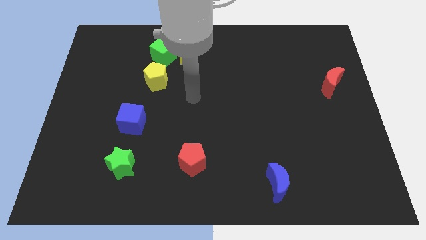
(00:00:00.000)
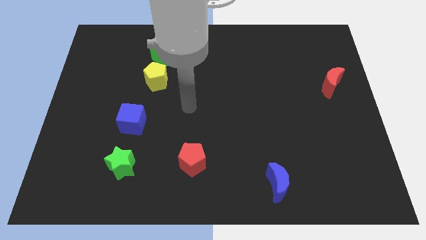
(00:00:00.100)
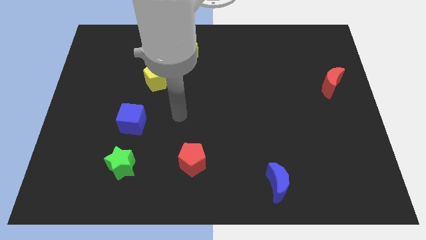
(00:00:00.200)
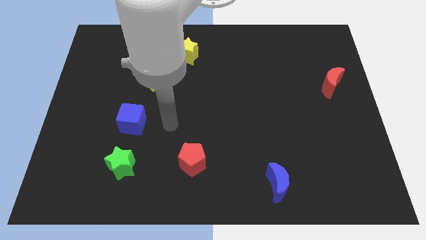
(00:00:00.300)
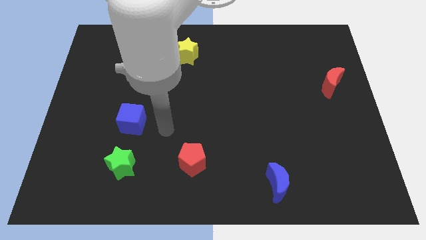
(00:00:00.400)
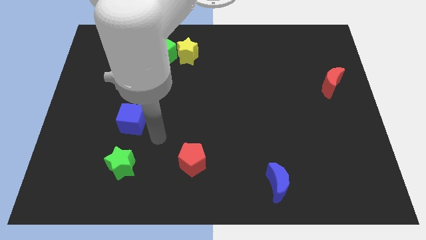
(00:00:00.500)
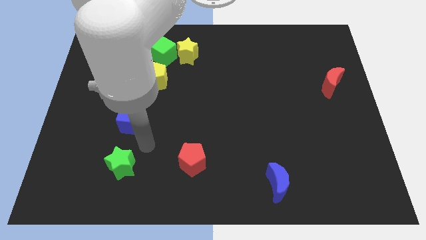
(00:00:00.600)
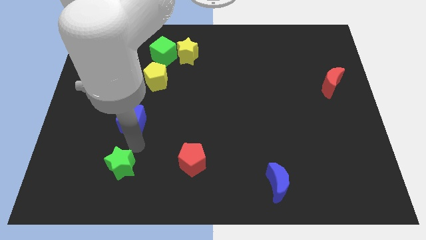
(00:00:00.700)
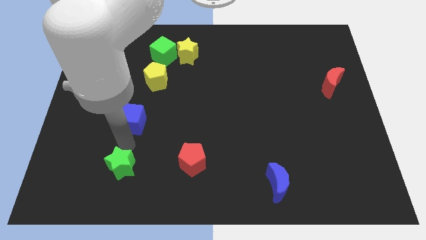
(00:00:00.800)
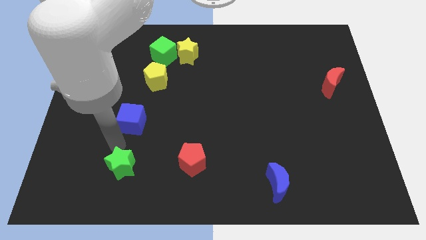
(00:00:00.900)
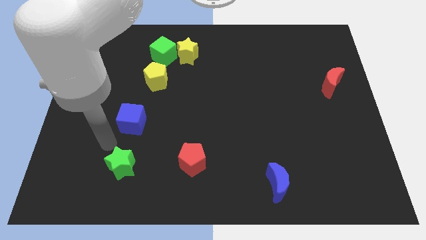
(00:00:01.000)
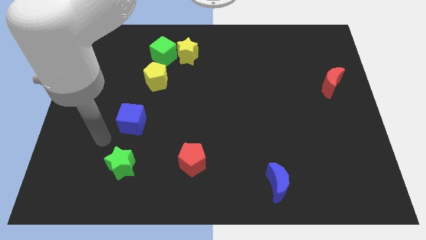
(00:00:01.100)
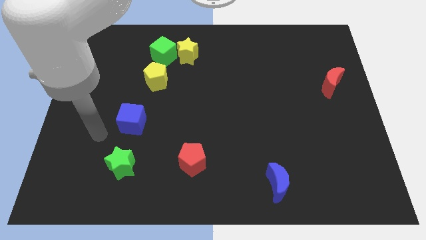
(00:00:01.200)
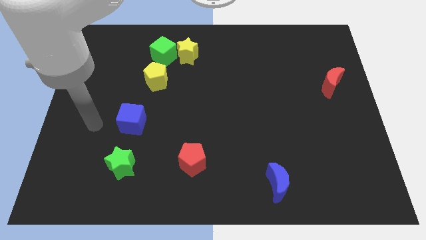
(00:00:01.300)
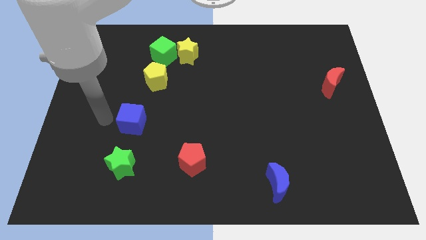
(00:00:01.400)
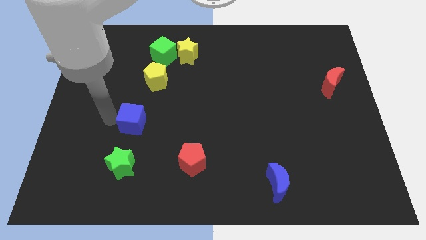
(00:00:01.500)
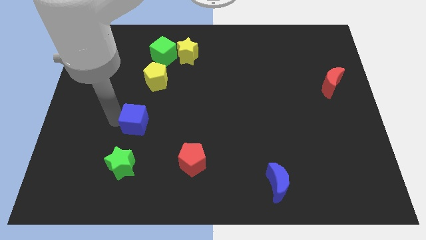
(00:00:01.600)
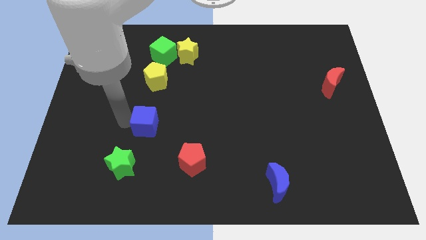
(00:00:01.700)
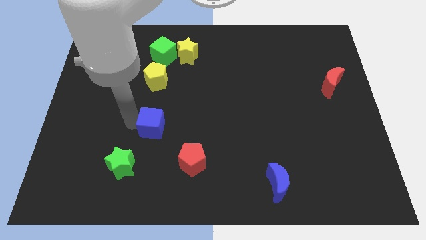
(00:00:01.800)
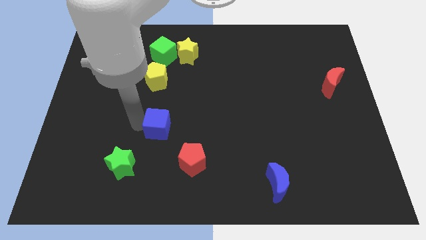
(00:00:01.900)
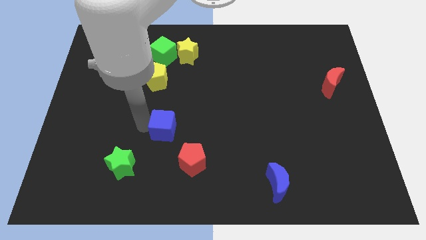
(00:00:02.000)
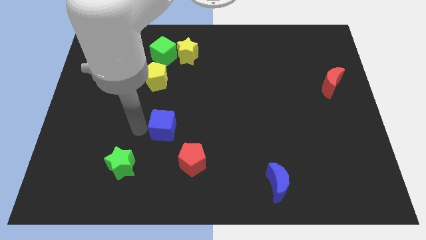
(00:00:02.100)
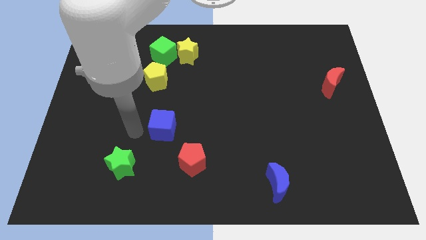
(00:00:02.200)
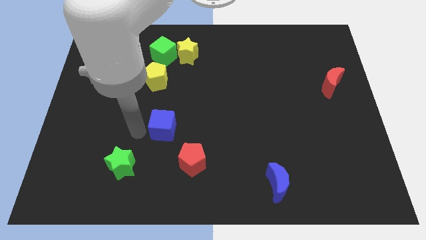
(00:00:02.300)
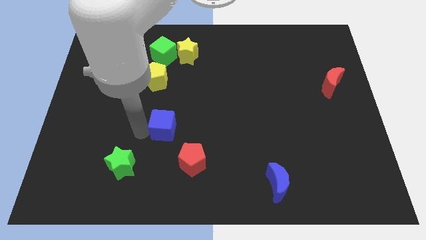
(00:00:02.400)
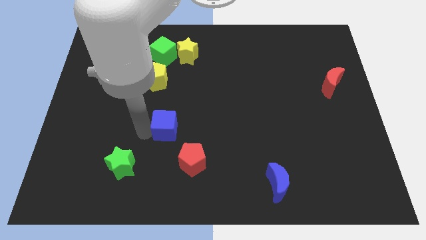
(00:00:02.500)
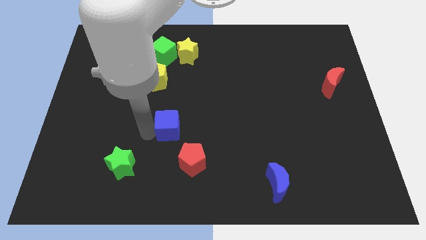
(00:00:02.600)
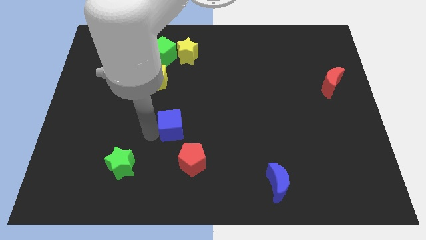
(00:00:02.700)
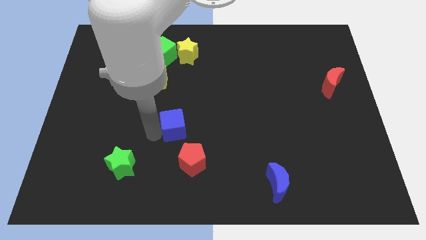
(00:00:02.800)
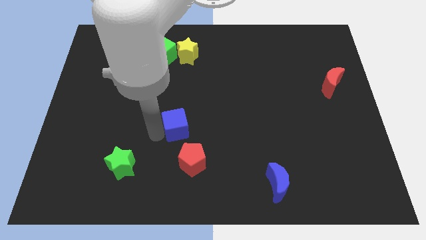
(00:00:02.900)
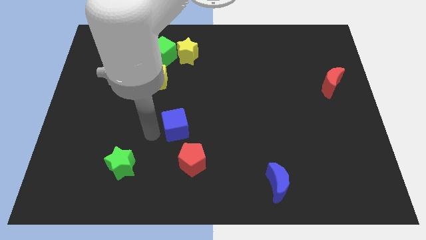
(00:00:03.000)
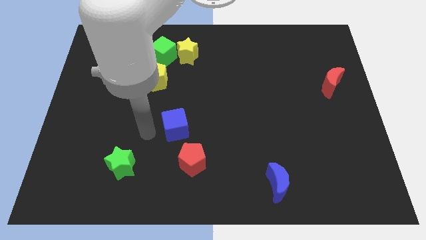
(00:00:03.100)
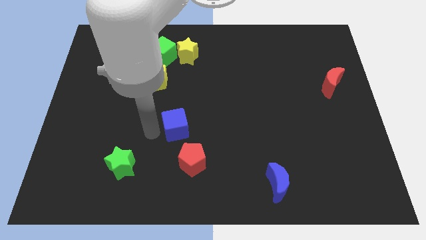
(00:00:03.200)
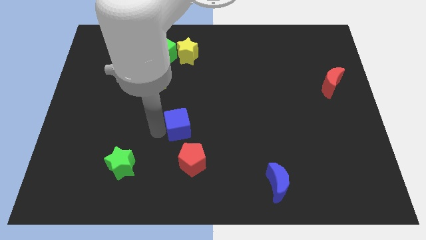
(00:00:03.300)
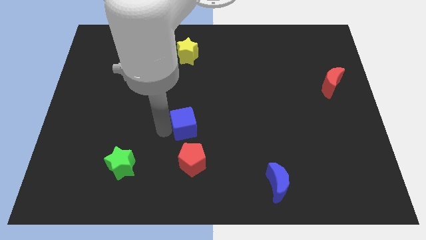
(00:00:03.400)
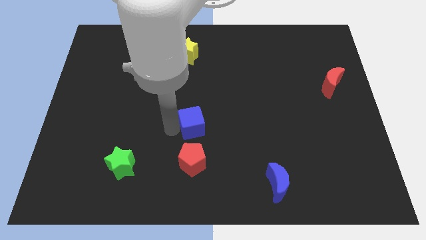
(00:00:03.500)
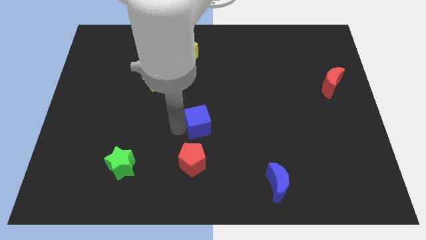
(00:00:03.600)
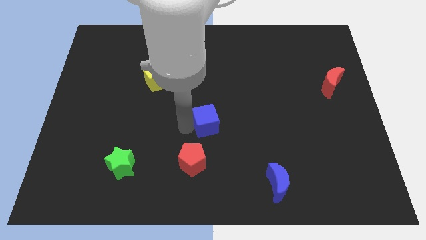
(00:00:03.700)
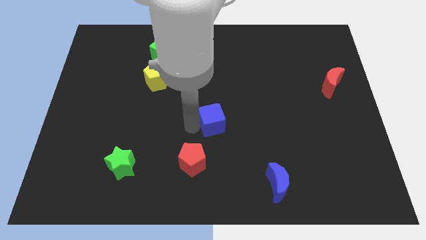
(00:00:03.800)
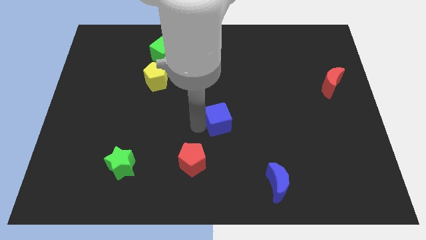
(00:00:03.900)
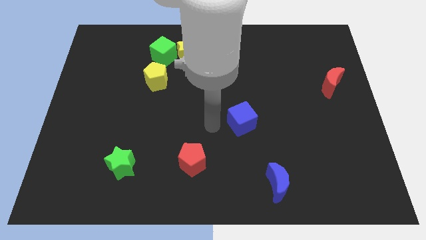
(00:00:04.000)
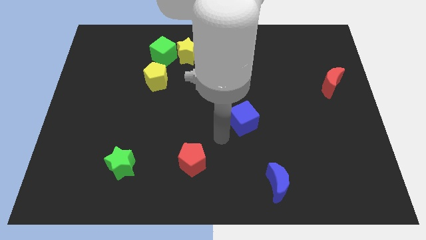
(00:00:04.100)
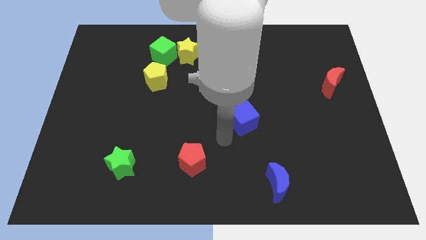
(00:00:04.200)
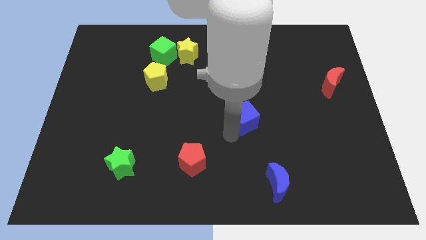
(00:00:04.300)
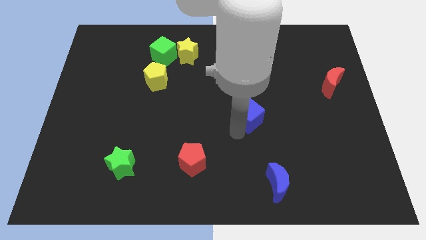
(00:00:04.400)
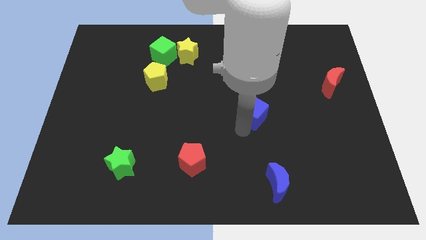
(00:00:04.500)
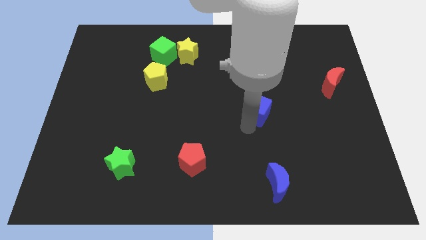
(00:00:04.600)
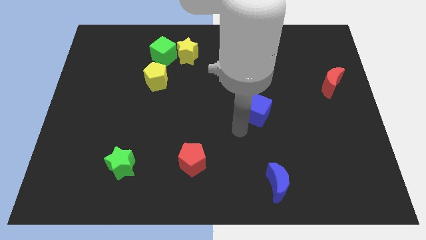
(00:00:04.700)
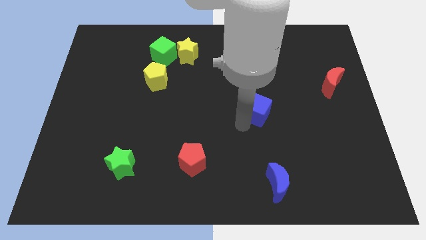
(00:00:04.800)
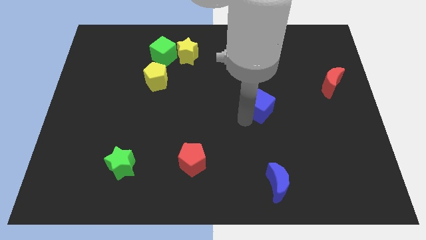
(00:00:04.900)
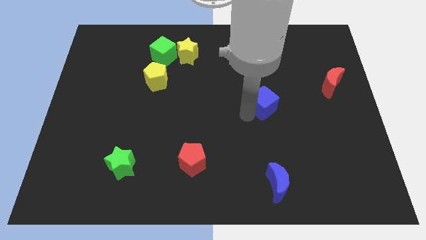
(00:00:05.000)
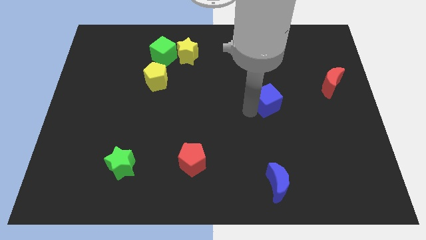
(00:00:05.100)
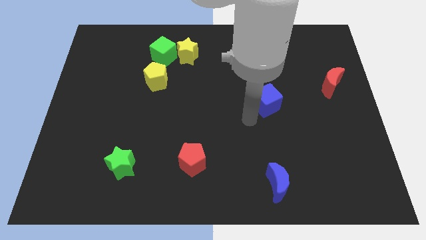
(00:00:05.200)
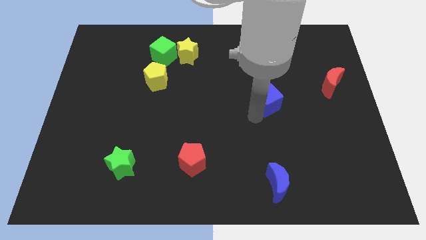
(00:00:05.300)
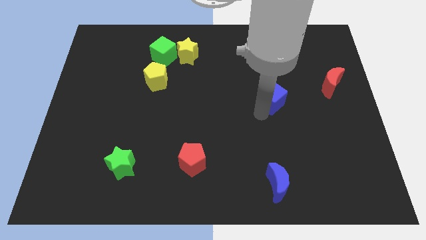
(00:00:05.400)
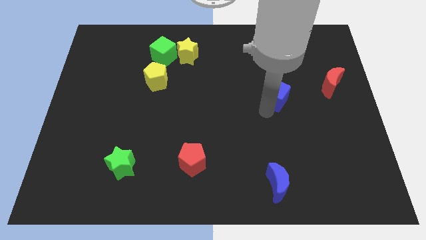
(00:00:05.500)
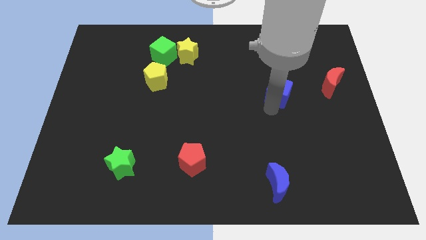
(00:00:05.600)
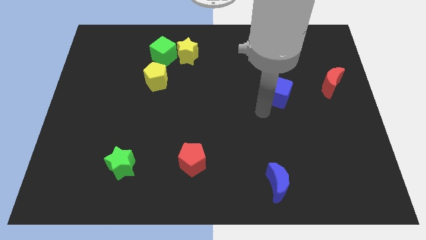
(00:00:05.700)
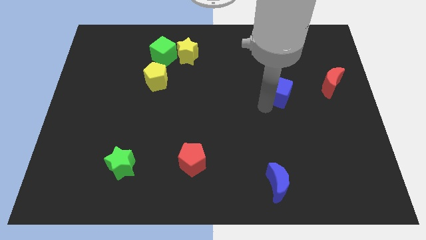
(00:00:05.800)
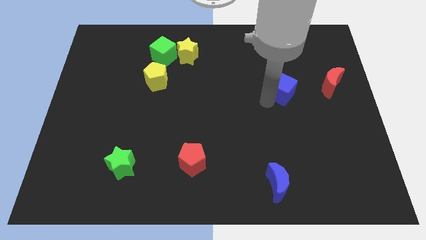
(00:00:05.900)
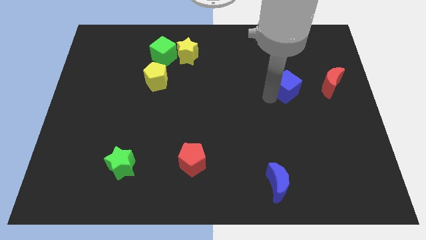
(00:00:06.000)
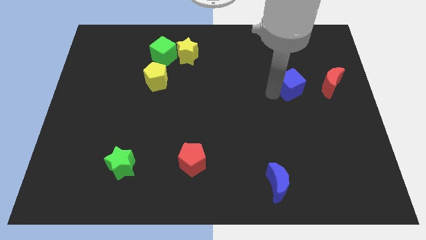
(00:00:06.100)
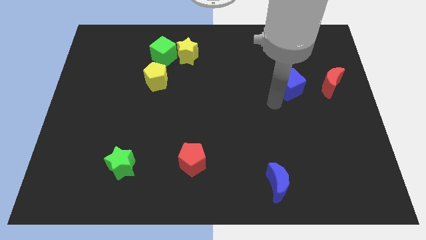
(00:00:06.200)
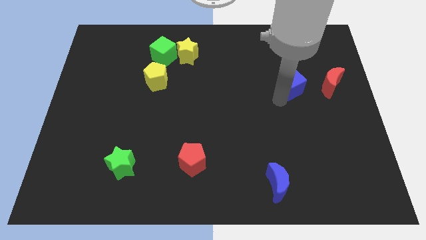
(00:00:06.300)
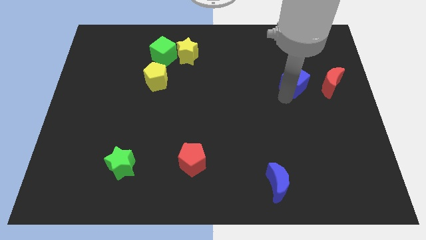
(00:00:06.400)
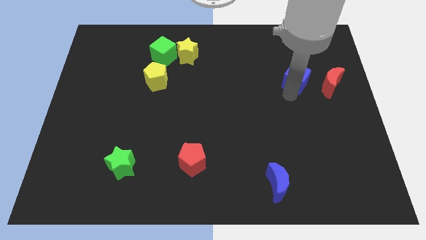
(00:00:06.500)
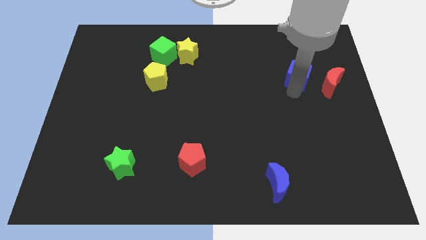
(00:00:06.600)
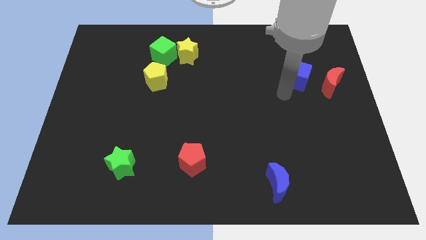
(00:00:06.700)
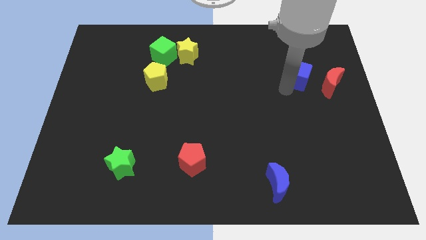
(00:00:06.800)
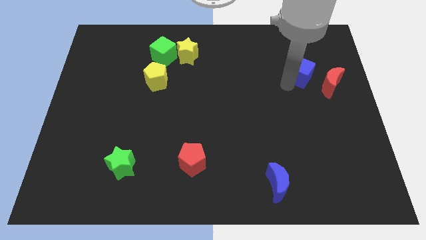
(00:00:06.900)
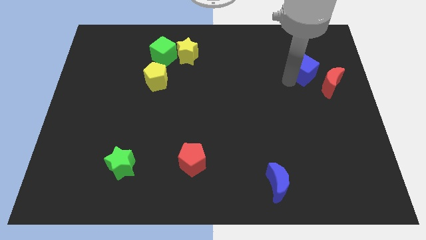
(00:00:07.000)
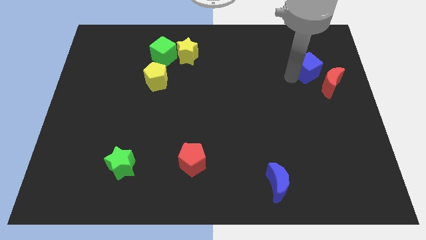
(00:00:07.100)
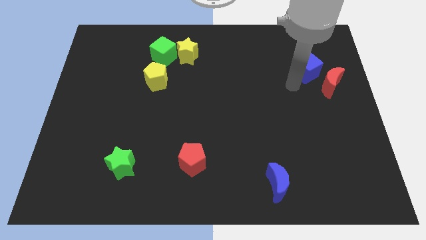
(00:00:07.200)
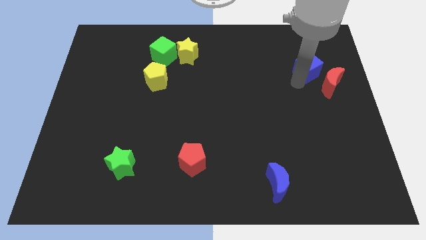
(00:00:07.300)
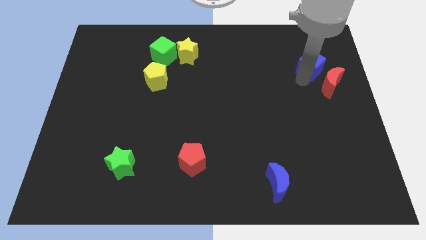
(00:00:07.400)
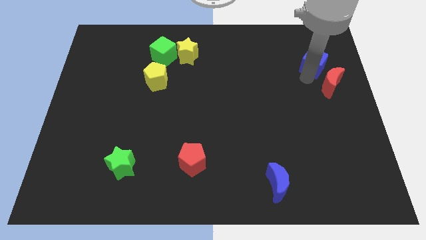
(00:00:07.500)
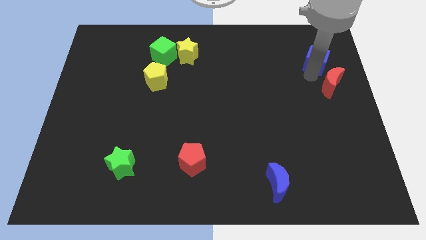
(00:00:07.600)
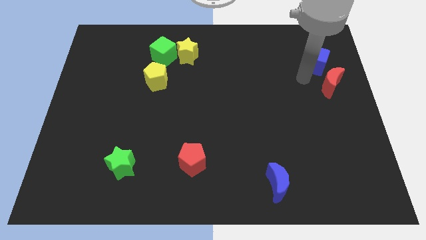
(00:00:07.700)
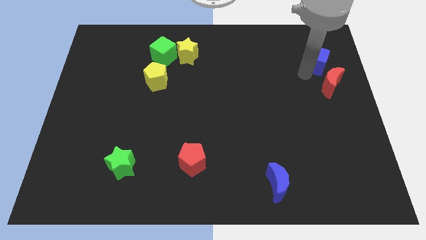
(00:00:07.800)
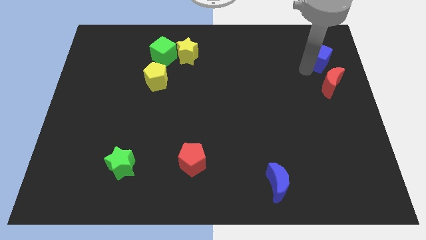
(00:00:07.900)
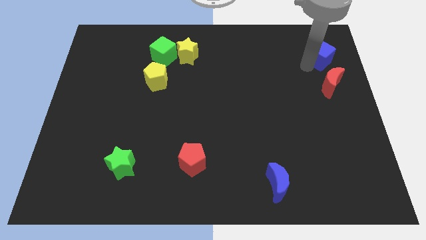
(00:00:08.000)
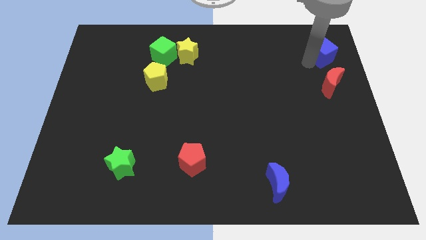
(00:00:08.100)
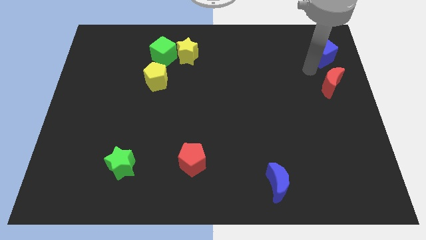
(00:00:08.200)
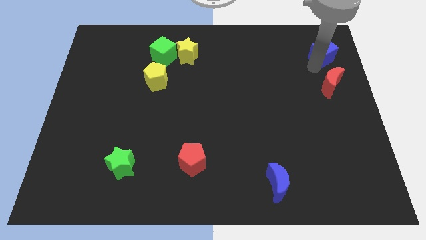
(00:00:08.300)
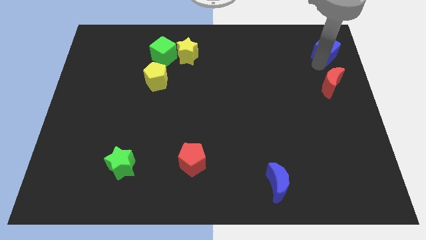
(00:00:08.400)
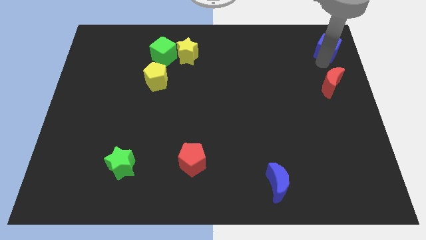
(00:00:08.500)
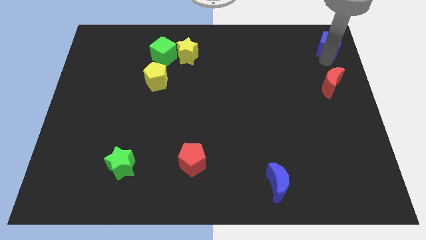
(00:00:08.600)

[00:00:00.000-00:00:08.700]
move the blue cube to the top right corner
